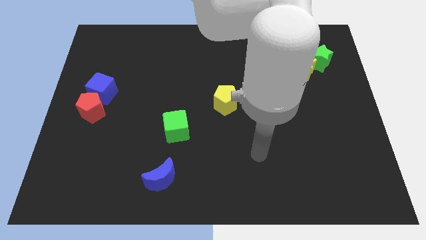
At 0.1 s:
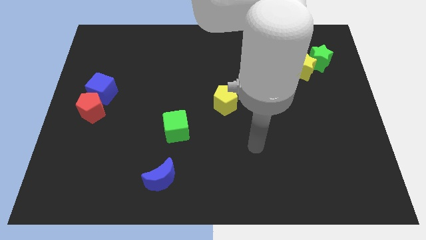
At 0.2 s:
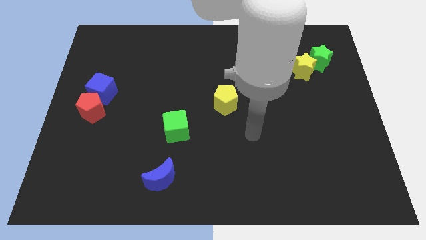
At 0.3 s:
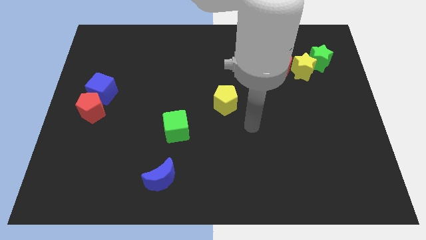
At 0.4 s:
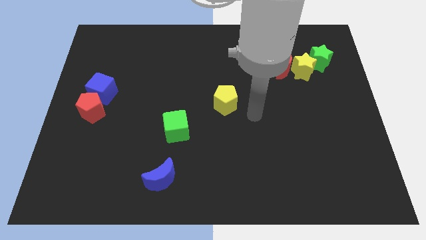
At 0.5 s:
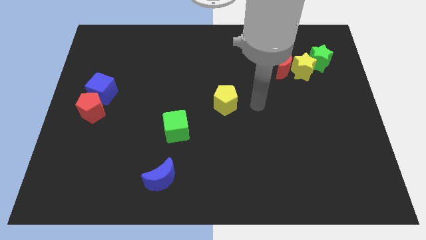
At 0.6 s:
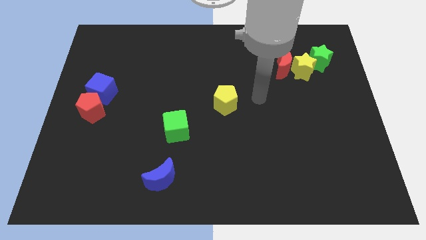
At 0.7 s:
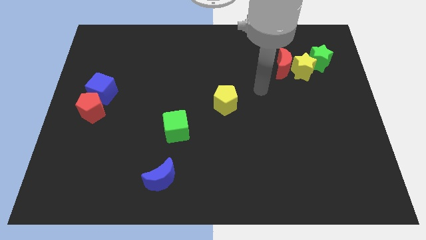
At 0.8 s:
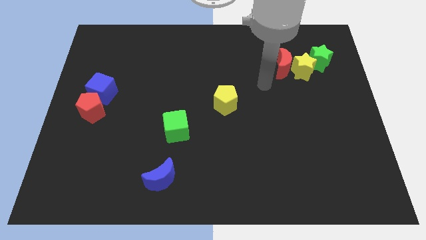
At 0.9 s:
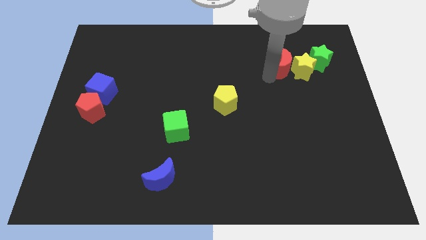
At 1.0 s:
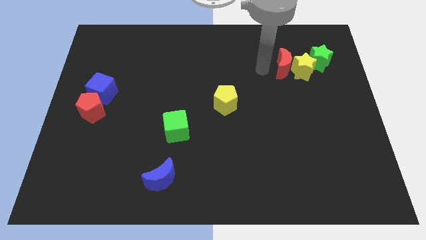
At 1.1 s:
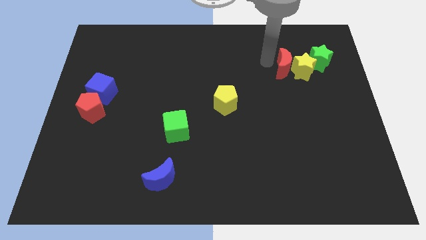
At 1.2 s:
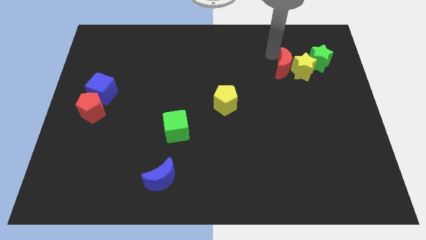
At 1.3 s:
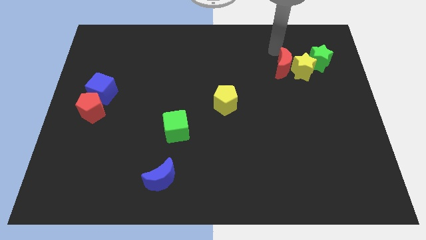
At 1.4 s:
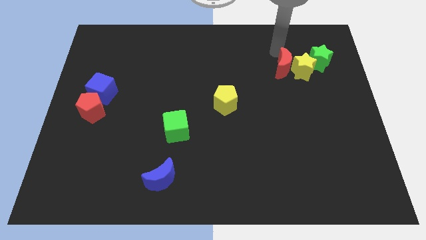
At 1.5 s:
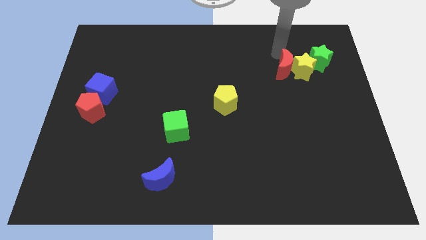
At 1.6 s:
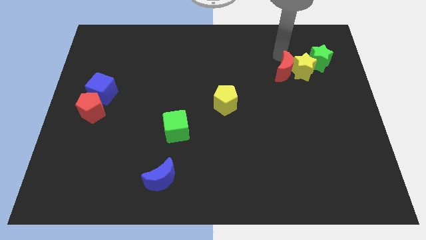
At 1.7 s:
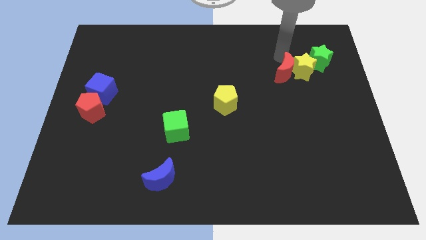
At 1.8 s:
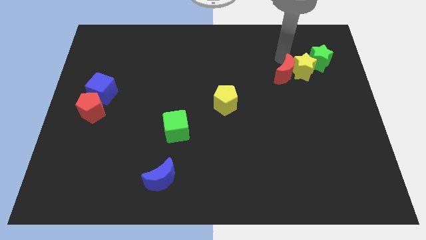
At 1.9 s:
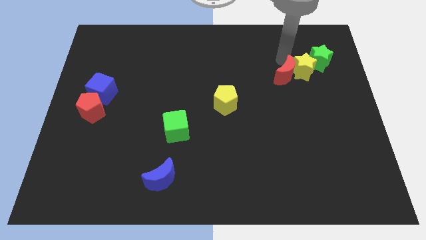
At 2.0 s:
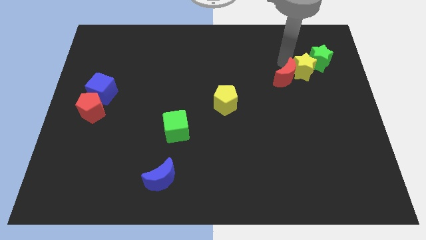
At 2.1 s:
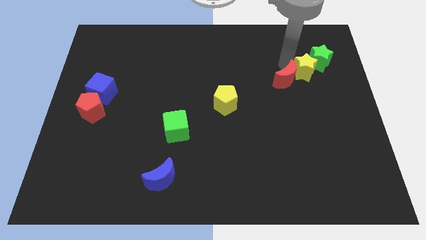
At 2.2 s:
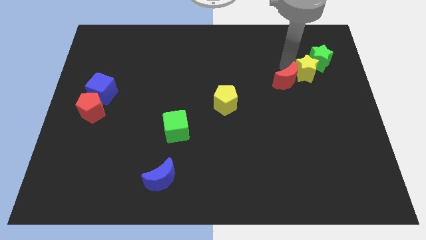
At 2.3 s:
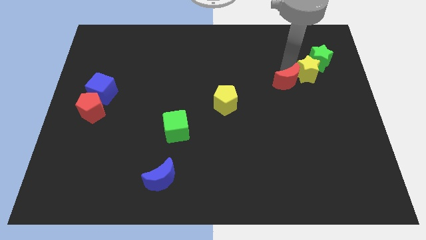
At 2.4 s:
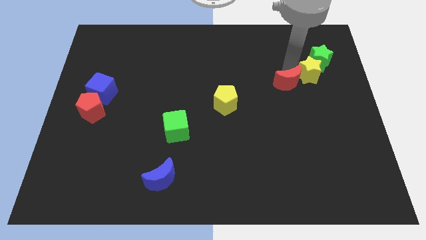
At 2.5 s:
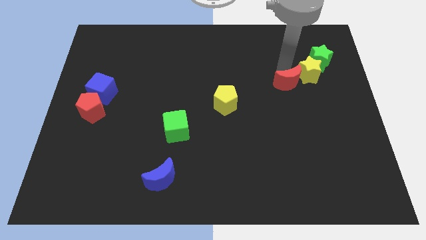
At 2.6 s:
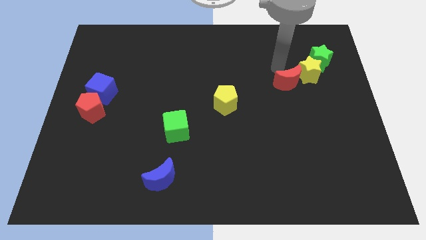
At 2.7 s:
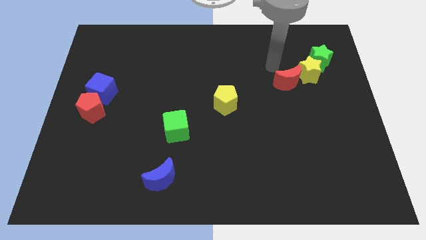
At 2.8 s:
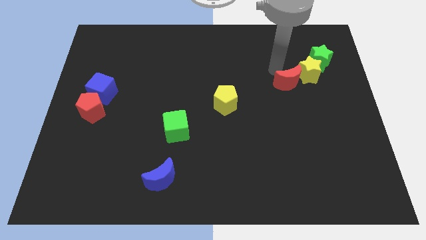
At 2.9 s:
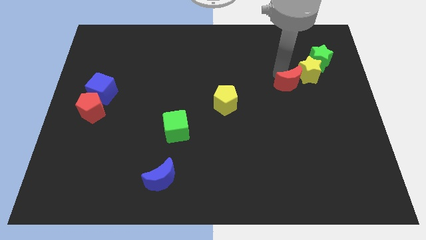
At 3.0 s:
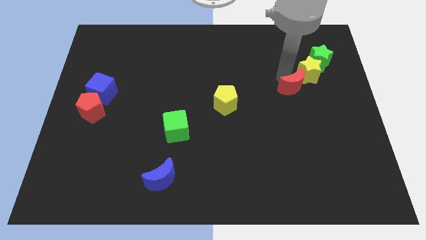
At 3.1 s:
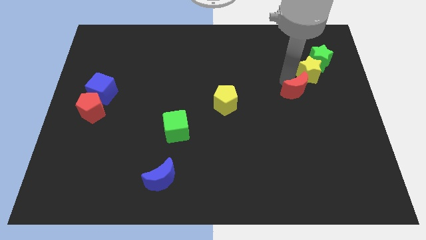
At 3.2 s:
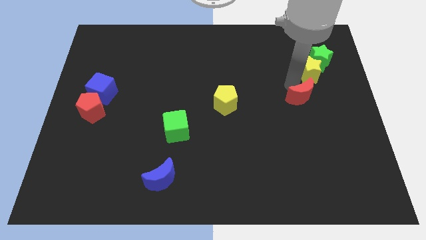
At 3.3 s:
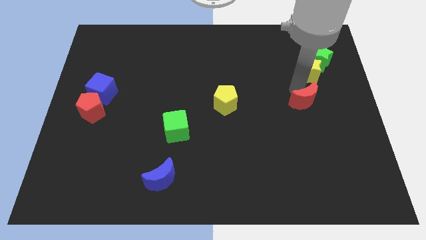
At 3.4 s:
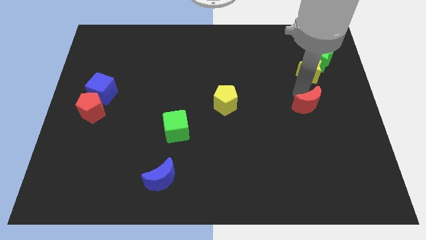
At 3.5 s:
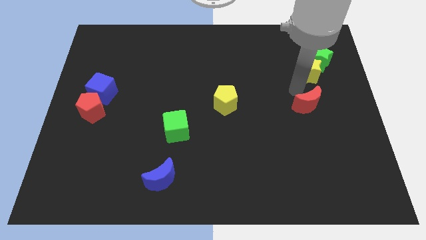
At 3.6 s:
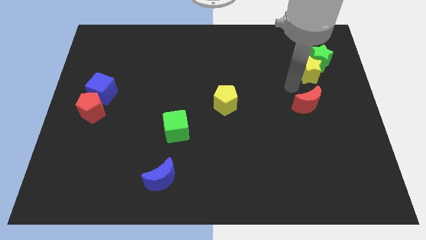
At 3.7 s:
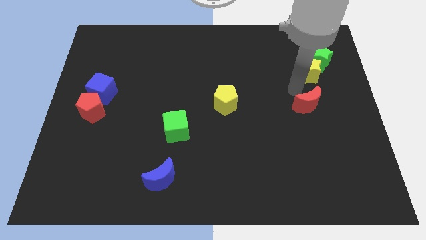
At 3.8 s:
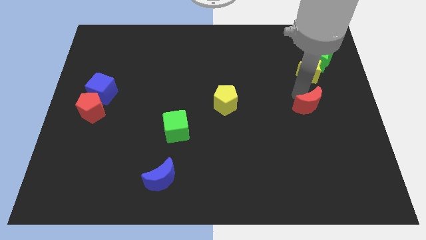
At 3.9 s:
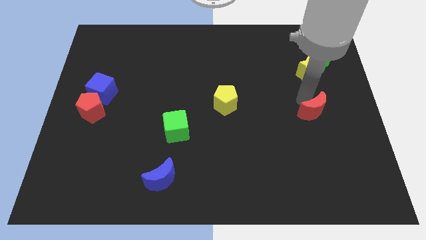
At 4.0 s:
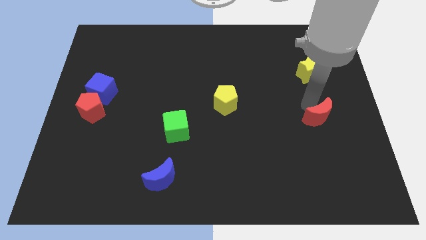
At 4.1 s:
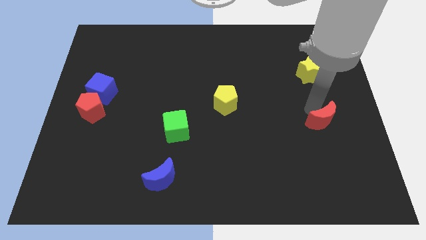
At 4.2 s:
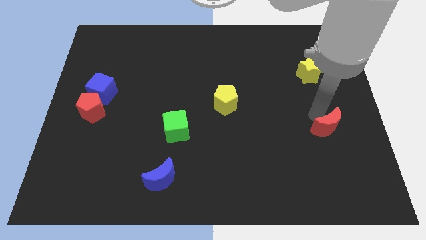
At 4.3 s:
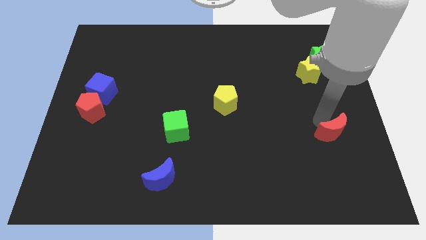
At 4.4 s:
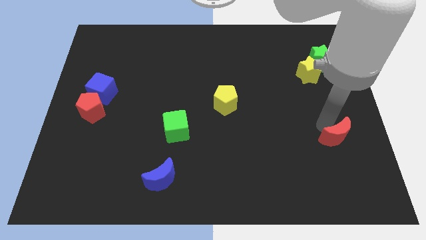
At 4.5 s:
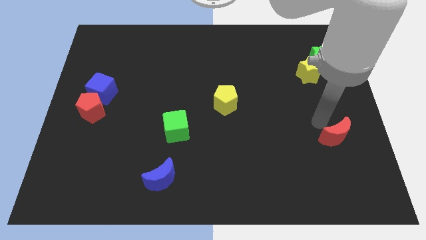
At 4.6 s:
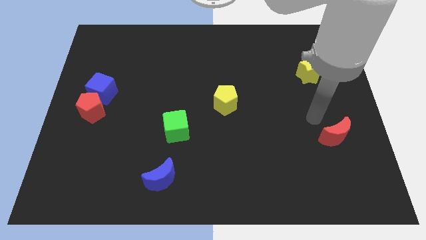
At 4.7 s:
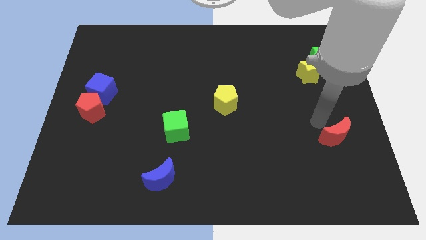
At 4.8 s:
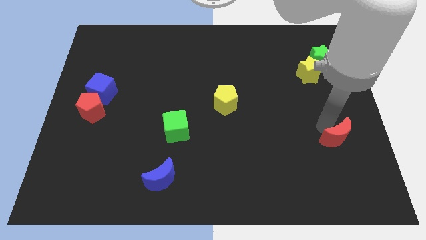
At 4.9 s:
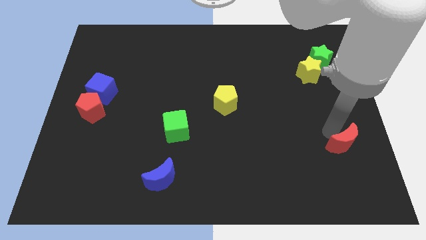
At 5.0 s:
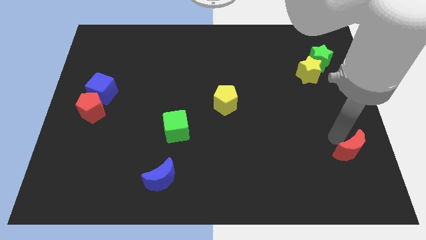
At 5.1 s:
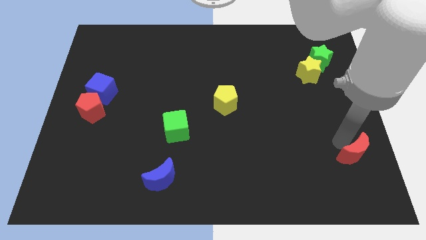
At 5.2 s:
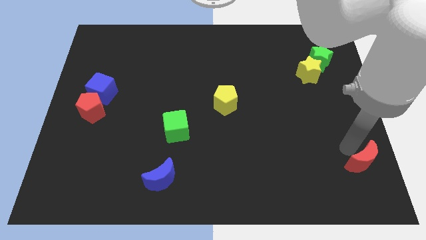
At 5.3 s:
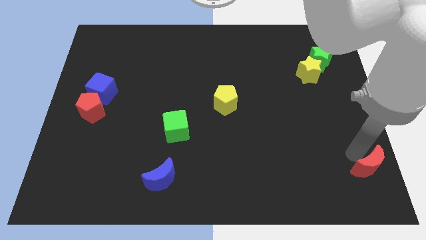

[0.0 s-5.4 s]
push the red moon to the lower right corner
